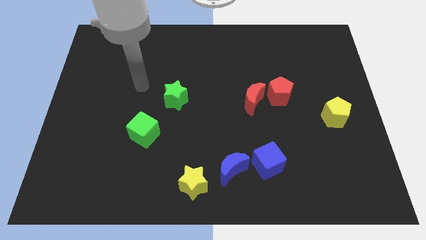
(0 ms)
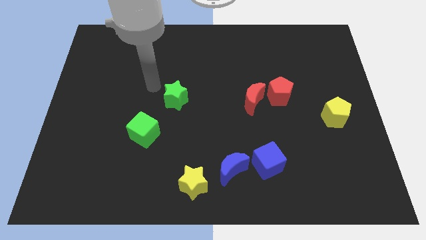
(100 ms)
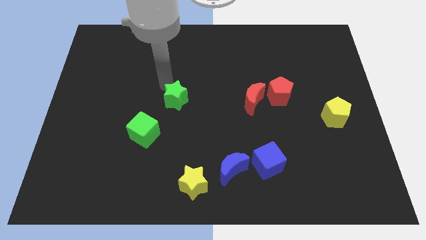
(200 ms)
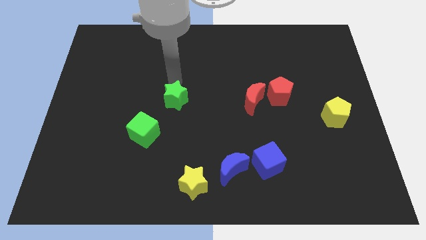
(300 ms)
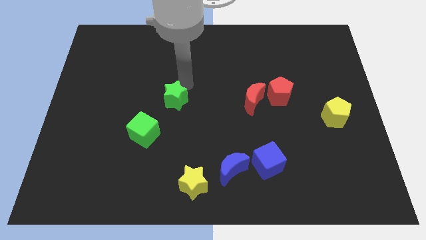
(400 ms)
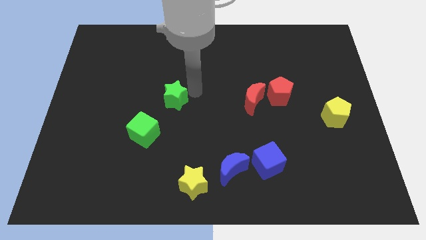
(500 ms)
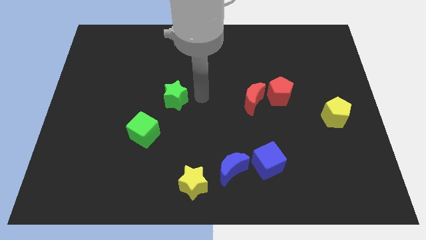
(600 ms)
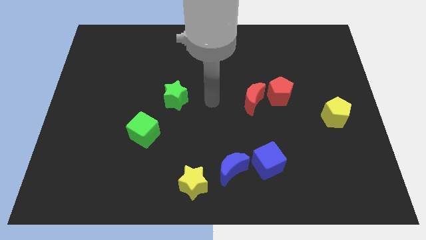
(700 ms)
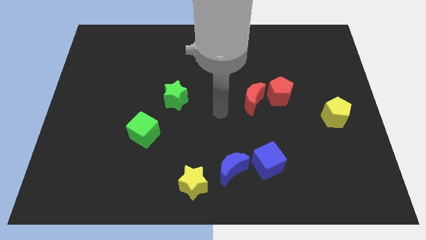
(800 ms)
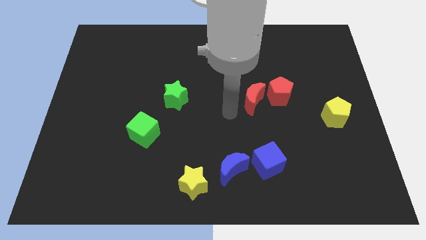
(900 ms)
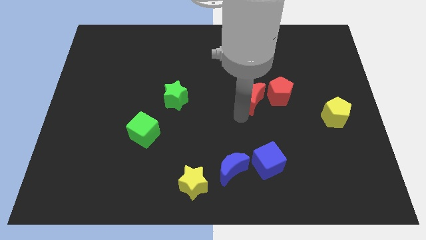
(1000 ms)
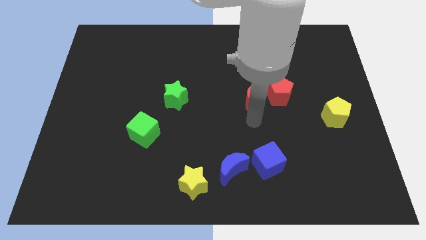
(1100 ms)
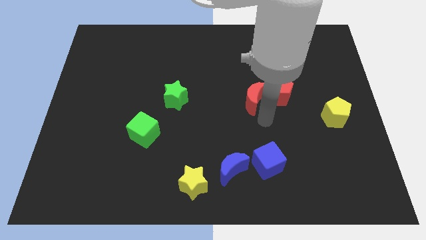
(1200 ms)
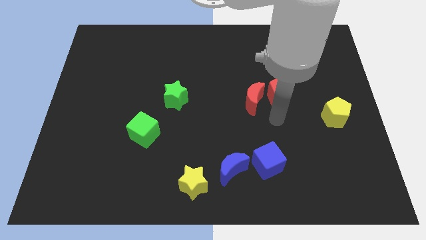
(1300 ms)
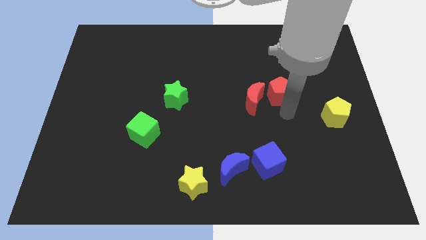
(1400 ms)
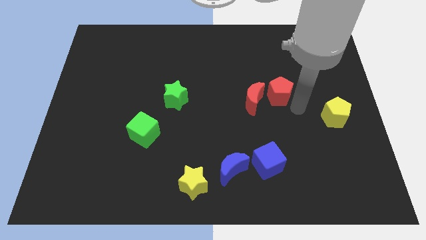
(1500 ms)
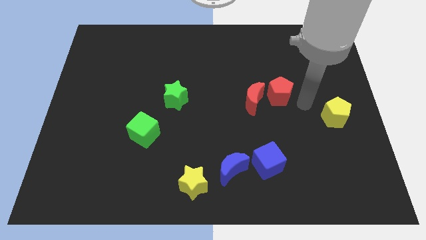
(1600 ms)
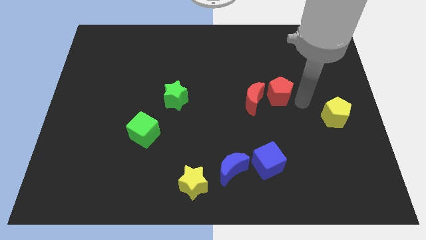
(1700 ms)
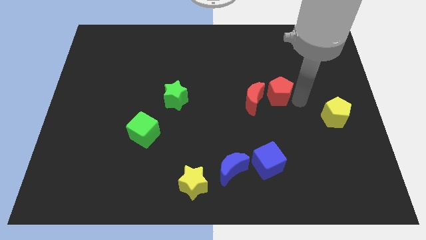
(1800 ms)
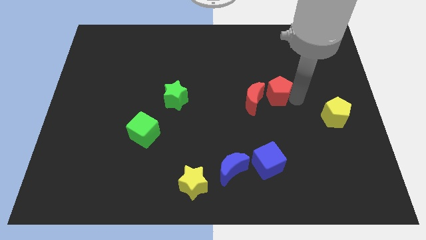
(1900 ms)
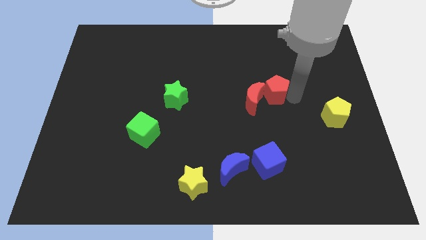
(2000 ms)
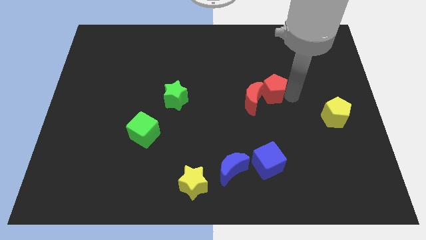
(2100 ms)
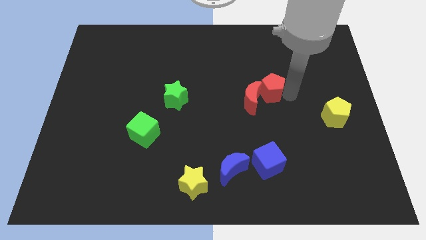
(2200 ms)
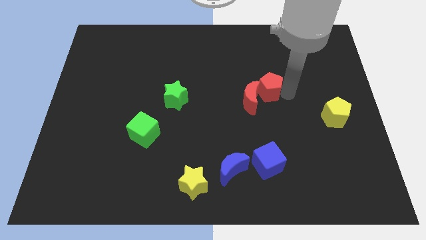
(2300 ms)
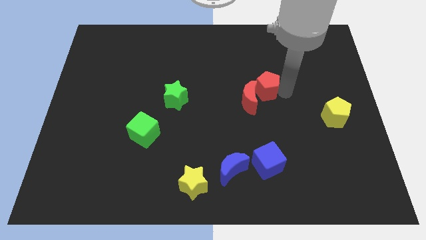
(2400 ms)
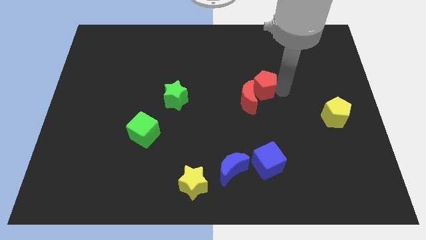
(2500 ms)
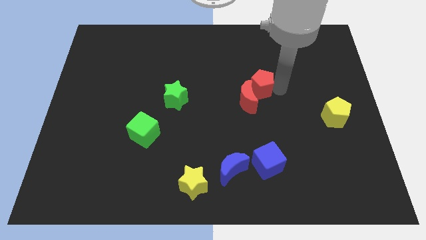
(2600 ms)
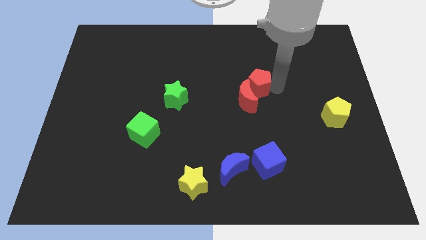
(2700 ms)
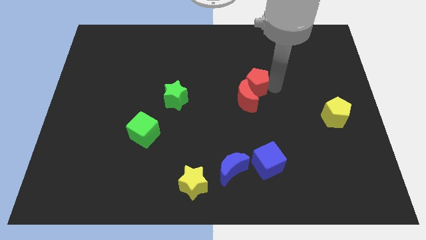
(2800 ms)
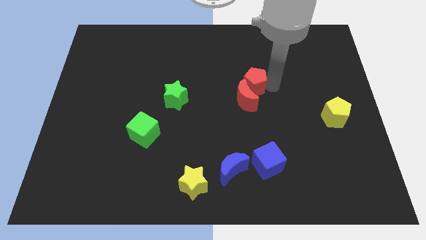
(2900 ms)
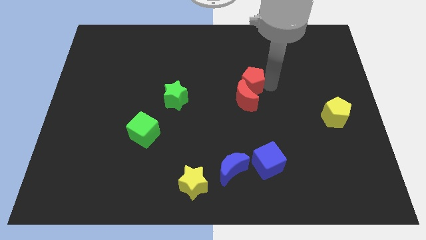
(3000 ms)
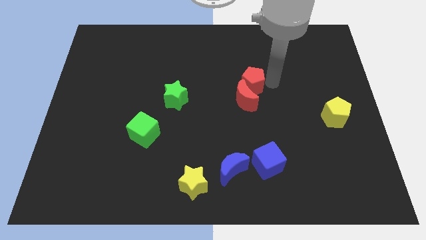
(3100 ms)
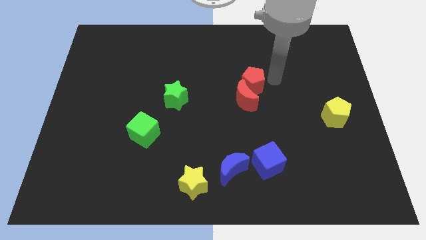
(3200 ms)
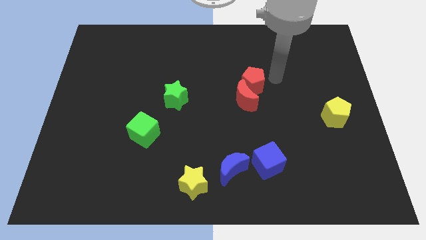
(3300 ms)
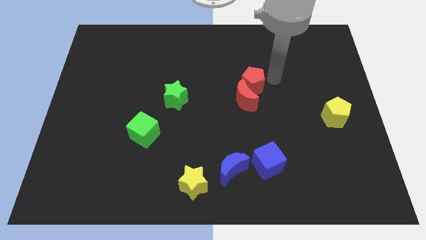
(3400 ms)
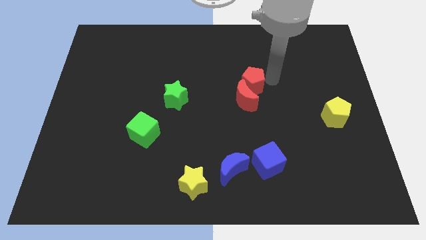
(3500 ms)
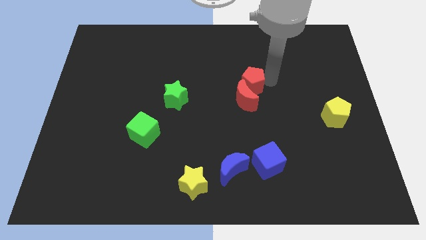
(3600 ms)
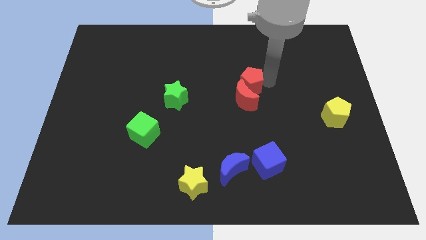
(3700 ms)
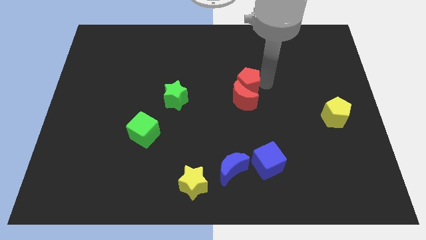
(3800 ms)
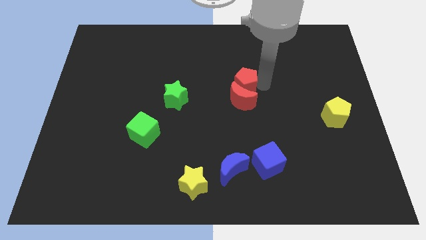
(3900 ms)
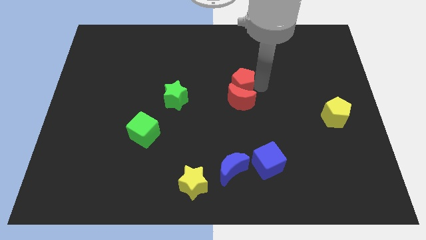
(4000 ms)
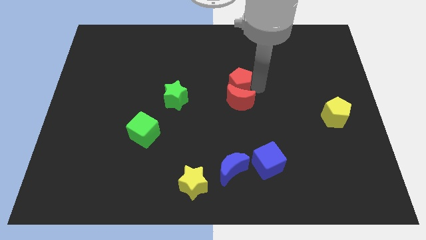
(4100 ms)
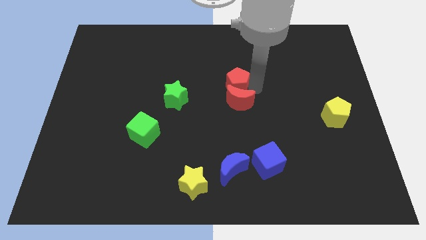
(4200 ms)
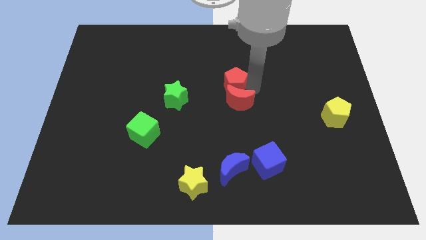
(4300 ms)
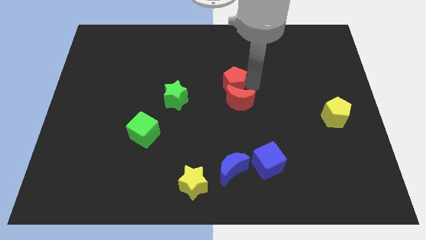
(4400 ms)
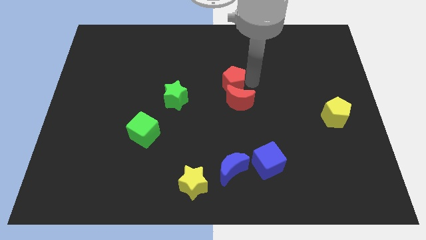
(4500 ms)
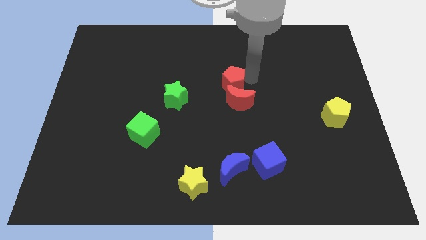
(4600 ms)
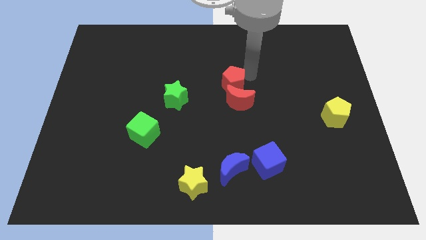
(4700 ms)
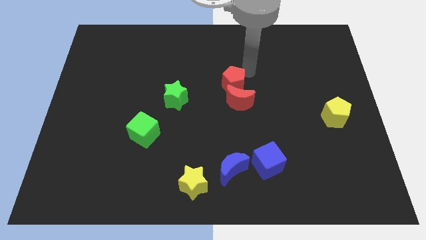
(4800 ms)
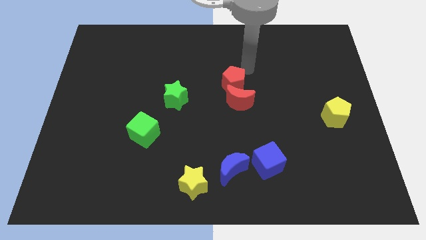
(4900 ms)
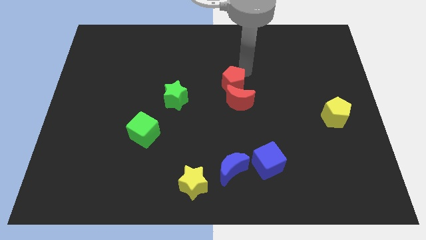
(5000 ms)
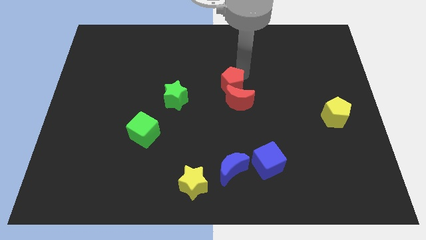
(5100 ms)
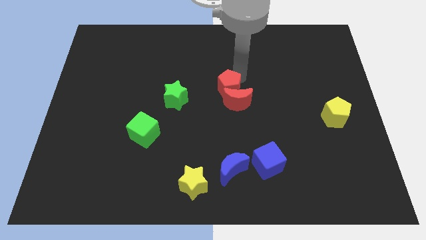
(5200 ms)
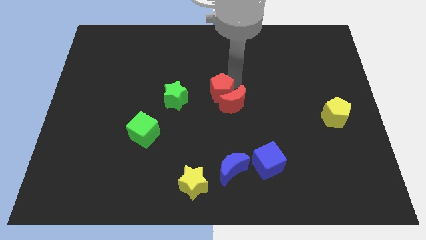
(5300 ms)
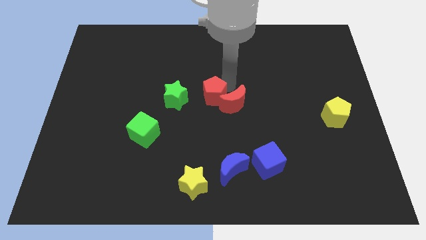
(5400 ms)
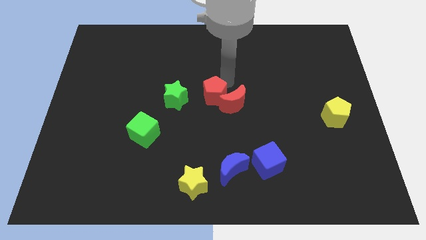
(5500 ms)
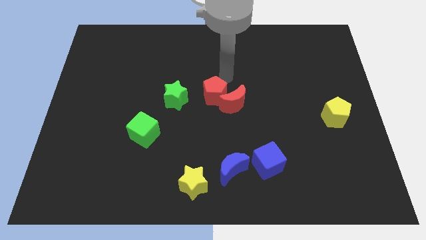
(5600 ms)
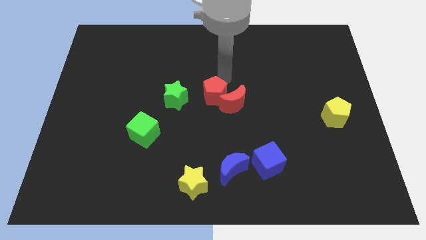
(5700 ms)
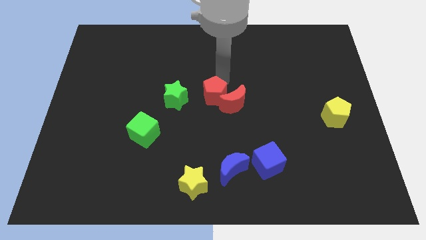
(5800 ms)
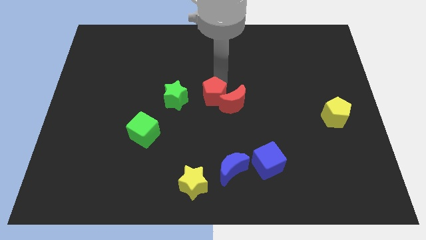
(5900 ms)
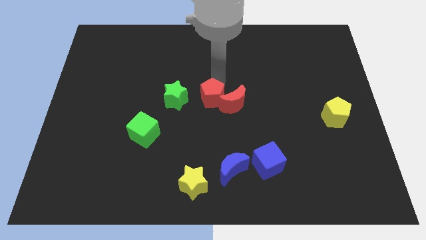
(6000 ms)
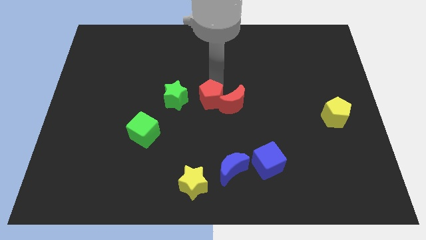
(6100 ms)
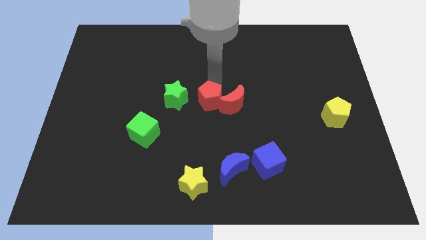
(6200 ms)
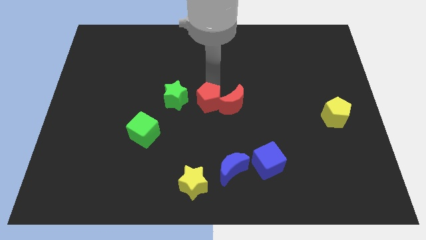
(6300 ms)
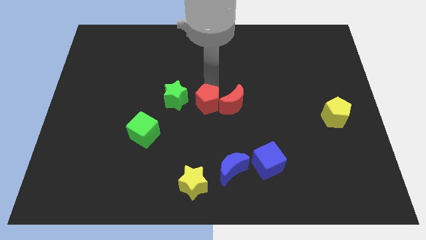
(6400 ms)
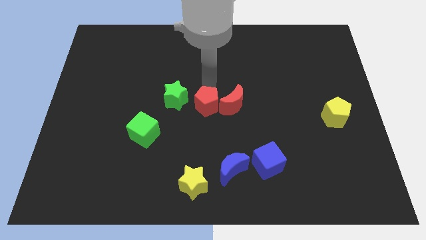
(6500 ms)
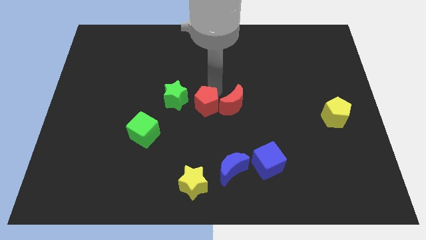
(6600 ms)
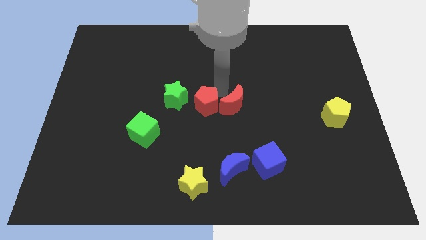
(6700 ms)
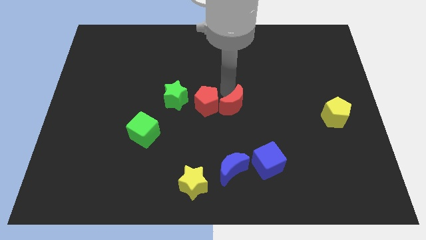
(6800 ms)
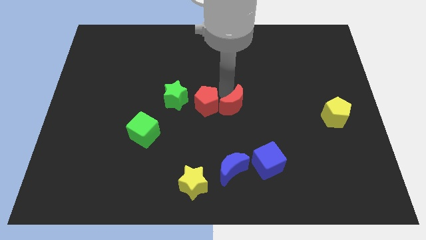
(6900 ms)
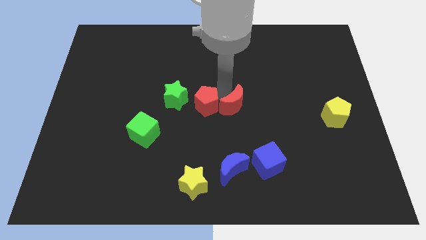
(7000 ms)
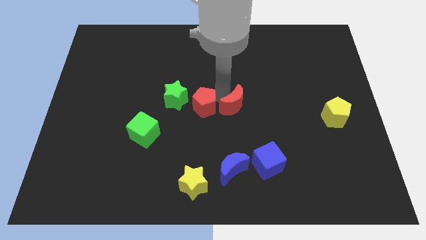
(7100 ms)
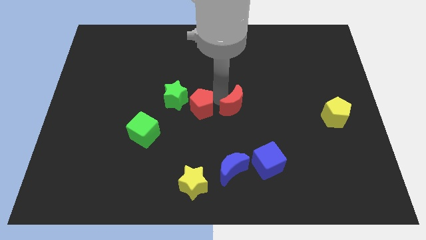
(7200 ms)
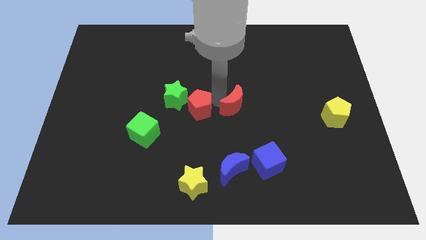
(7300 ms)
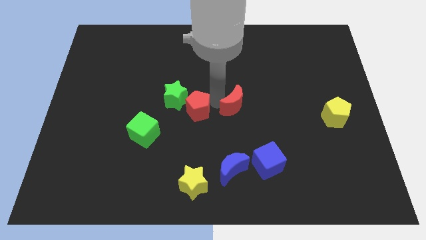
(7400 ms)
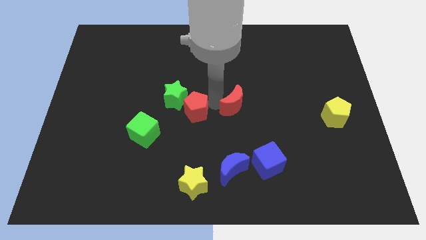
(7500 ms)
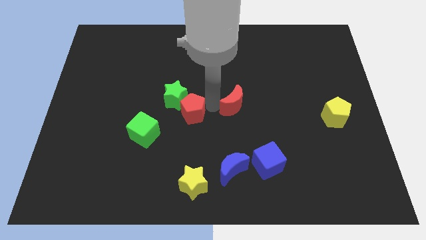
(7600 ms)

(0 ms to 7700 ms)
put the red pentagon to the bottom of the green star
